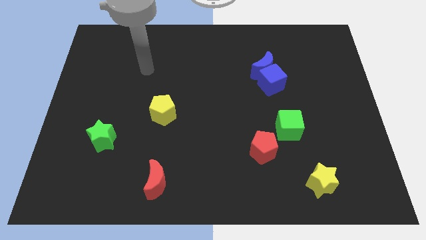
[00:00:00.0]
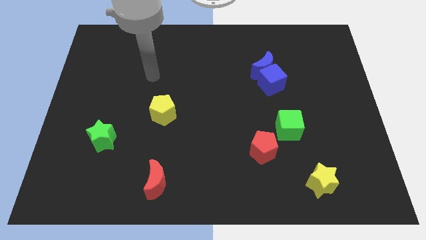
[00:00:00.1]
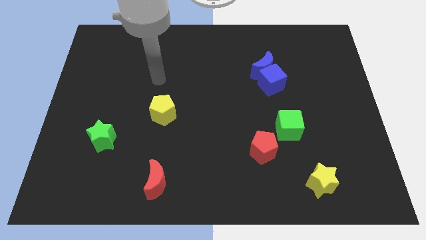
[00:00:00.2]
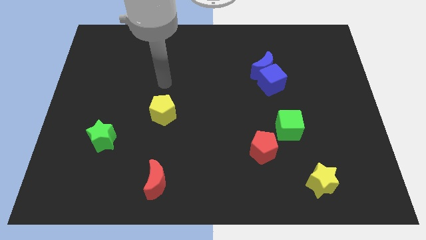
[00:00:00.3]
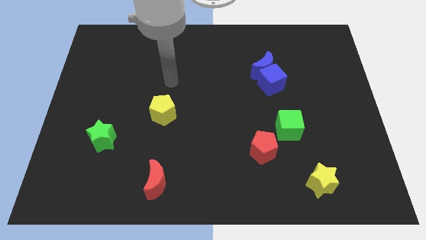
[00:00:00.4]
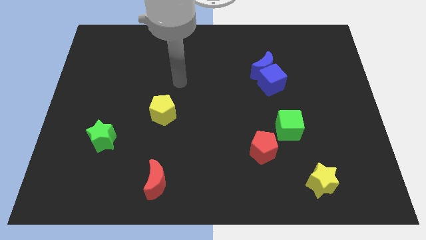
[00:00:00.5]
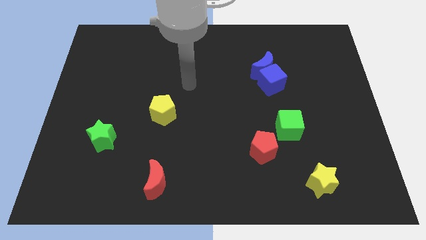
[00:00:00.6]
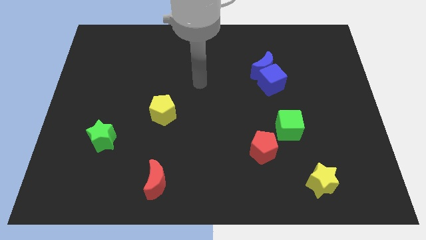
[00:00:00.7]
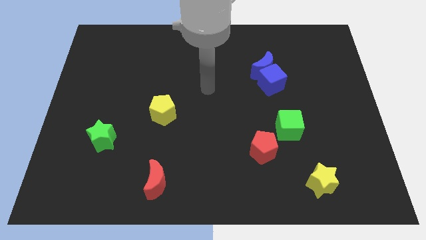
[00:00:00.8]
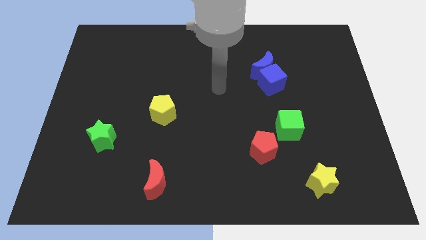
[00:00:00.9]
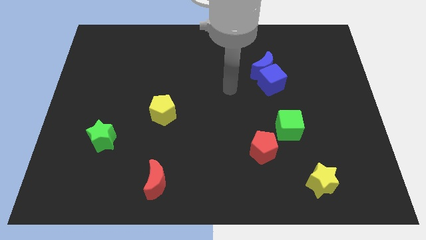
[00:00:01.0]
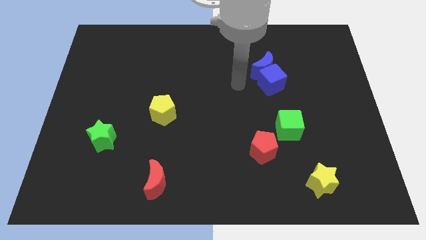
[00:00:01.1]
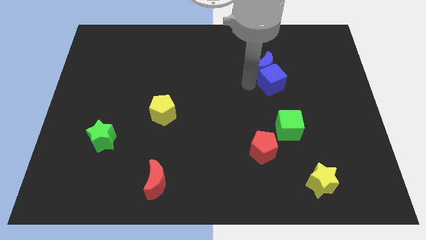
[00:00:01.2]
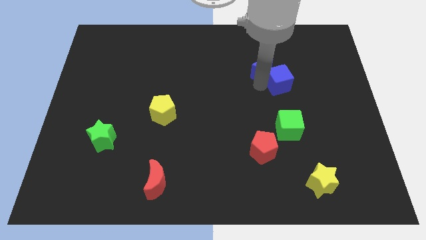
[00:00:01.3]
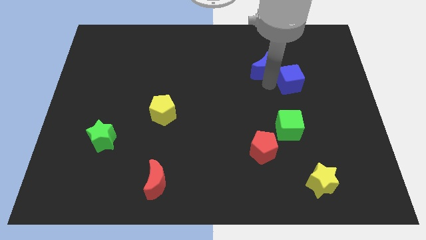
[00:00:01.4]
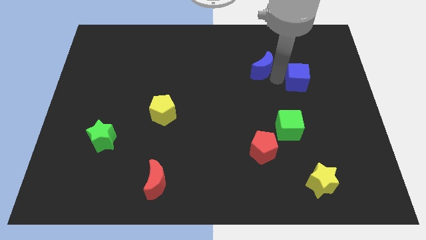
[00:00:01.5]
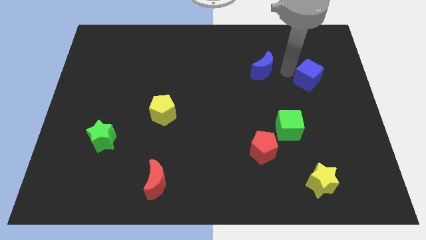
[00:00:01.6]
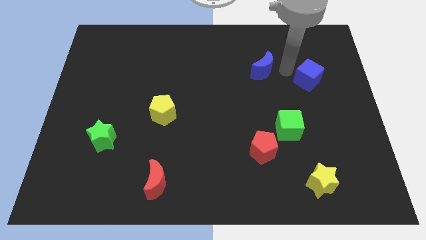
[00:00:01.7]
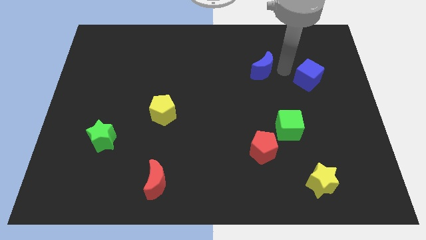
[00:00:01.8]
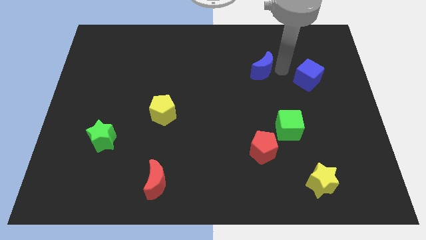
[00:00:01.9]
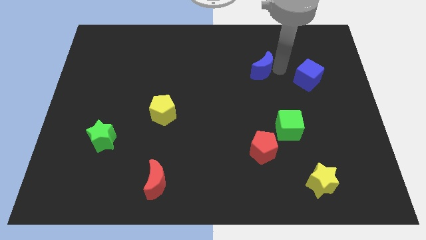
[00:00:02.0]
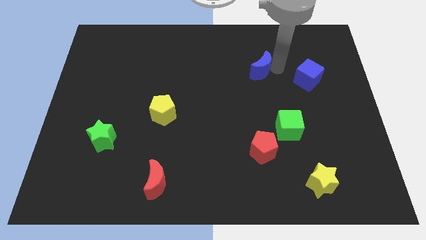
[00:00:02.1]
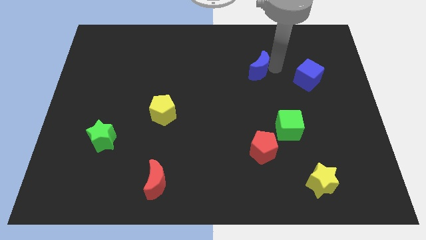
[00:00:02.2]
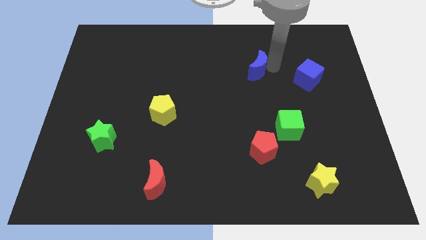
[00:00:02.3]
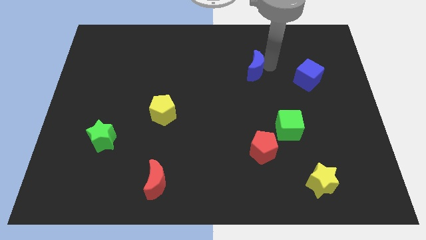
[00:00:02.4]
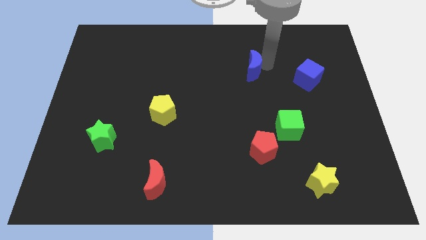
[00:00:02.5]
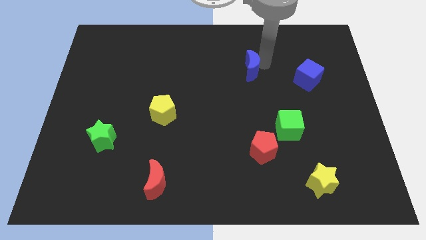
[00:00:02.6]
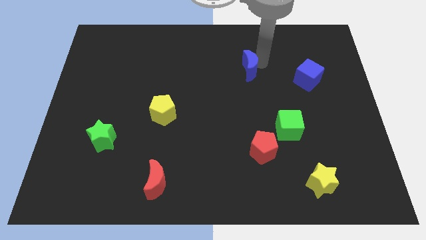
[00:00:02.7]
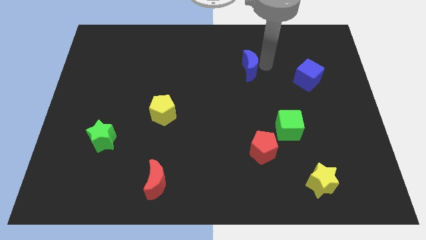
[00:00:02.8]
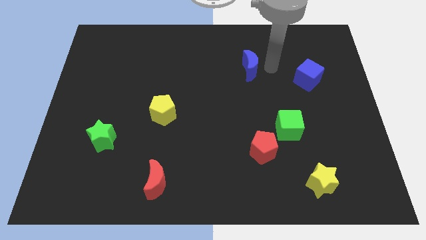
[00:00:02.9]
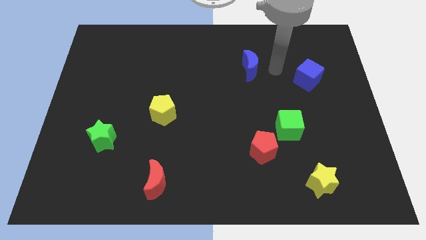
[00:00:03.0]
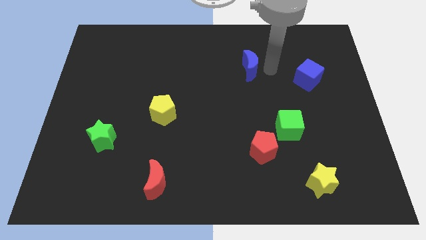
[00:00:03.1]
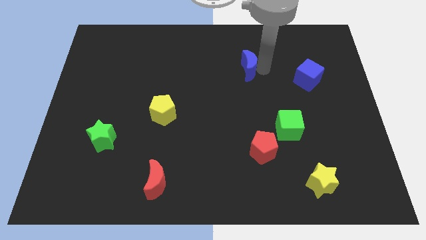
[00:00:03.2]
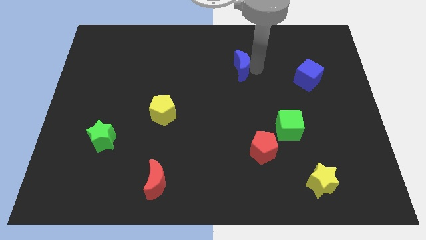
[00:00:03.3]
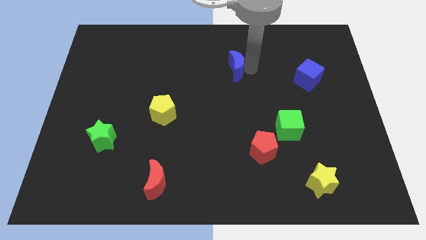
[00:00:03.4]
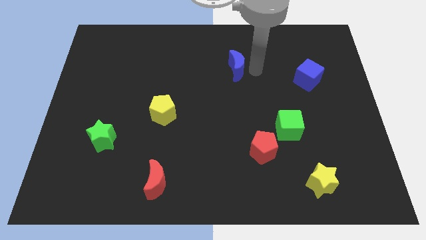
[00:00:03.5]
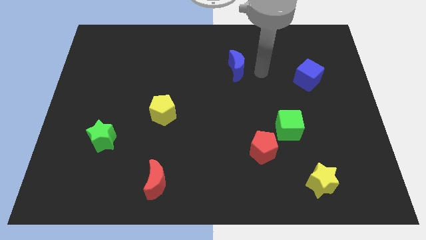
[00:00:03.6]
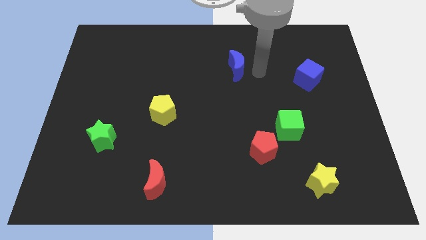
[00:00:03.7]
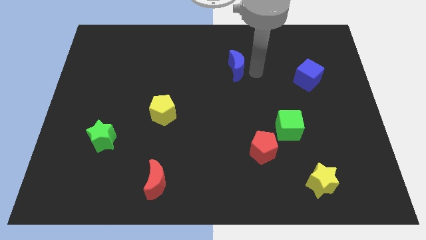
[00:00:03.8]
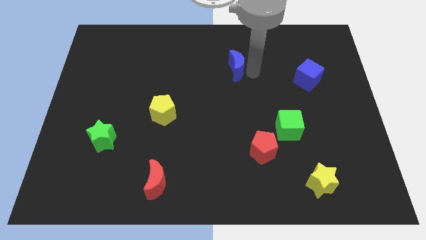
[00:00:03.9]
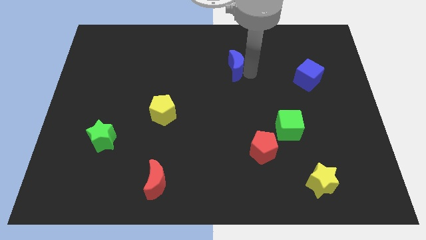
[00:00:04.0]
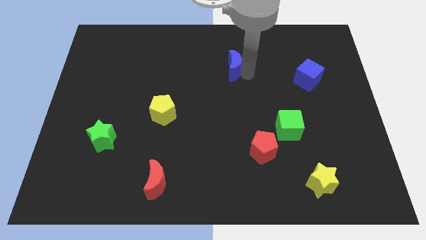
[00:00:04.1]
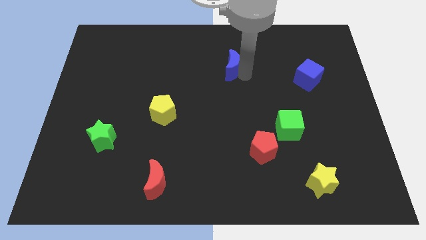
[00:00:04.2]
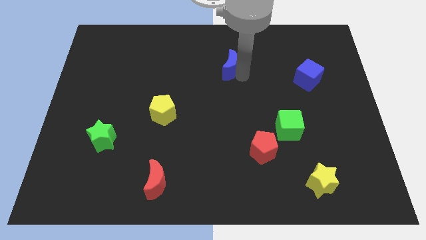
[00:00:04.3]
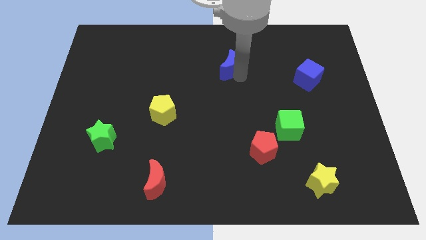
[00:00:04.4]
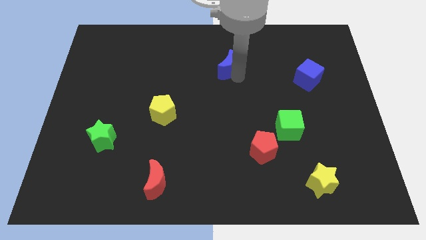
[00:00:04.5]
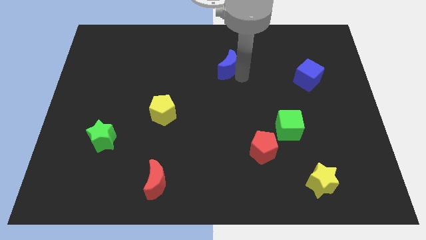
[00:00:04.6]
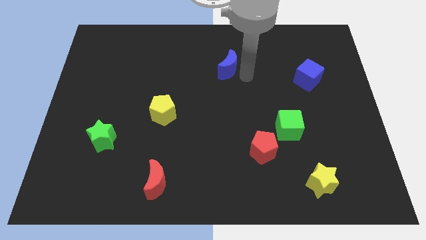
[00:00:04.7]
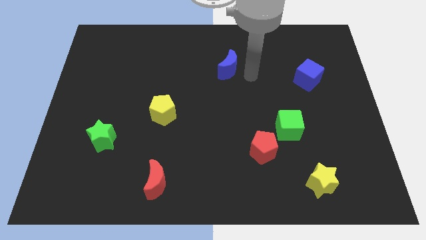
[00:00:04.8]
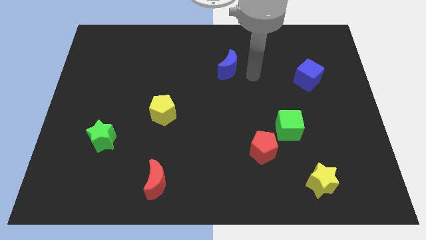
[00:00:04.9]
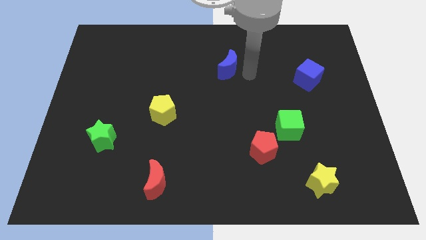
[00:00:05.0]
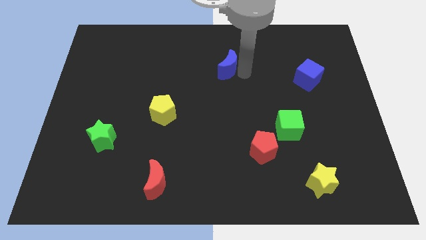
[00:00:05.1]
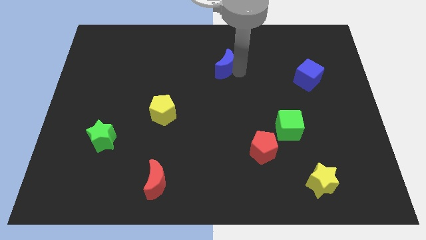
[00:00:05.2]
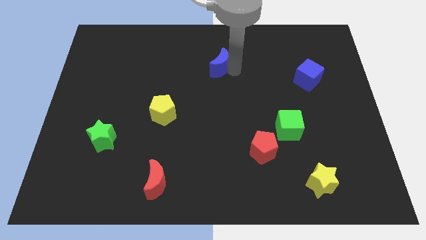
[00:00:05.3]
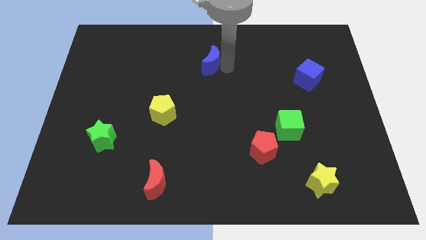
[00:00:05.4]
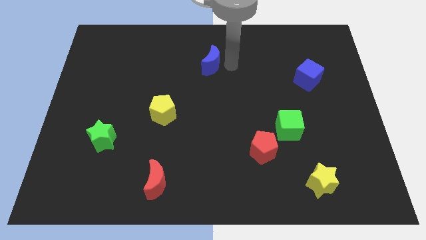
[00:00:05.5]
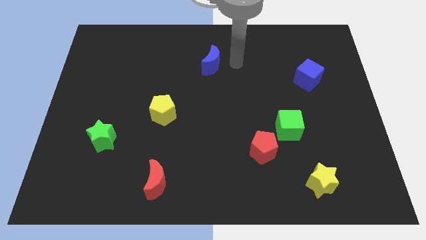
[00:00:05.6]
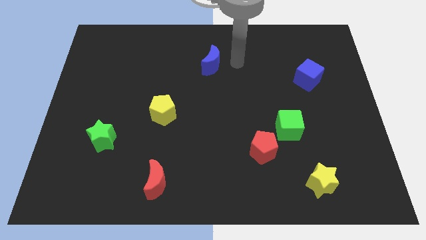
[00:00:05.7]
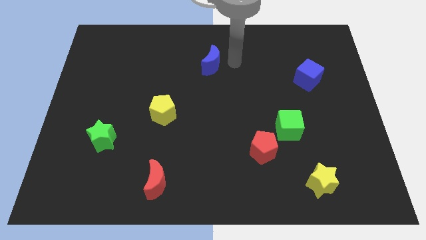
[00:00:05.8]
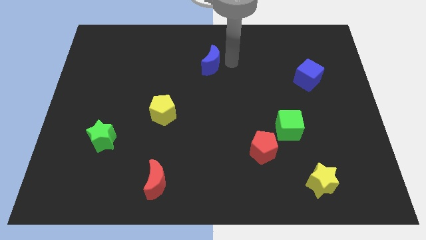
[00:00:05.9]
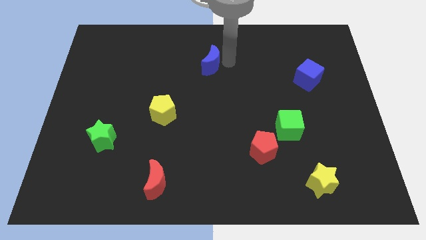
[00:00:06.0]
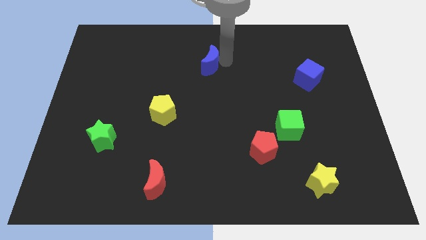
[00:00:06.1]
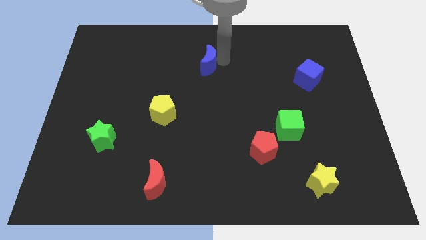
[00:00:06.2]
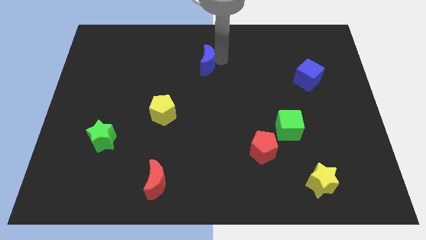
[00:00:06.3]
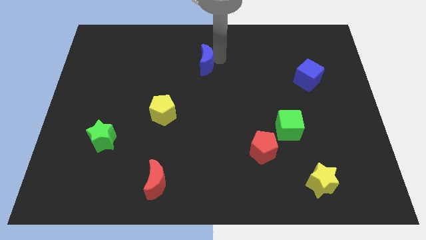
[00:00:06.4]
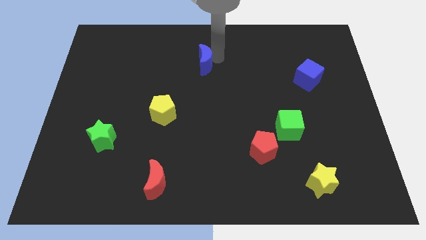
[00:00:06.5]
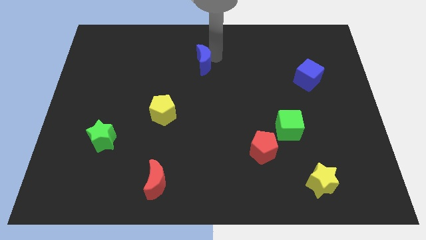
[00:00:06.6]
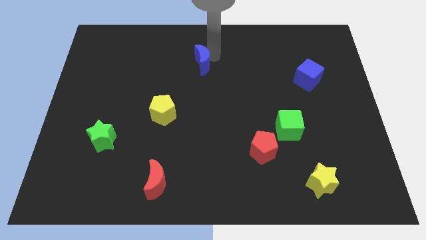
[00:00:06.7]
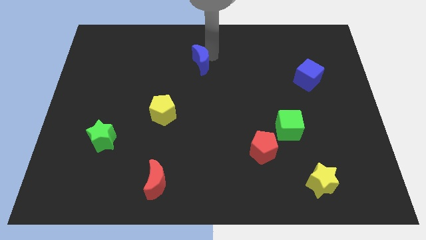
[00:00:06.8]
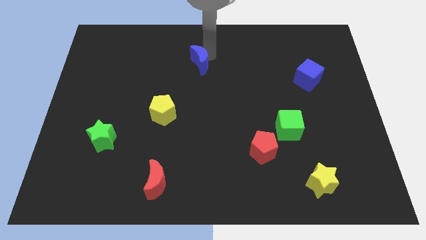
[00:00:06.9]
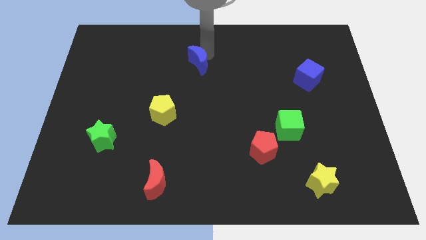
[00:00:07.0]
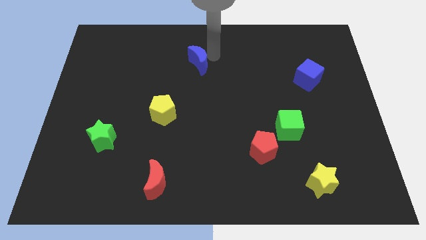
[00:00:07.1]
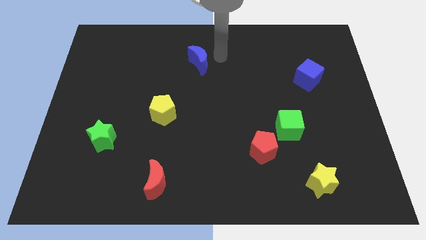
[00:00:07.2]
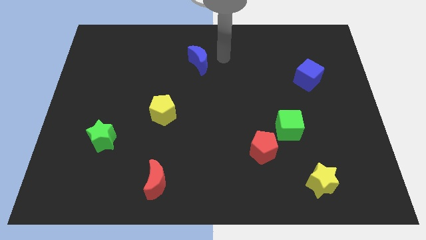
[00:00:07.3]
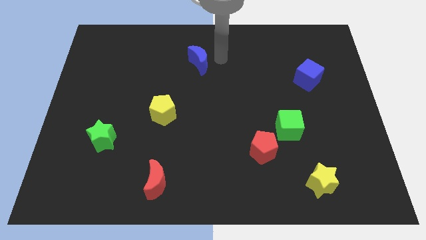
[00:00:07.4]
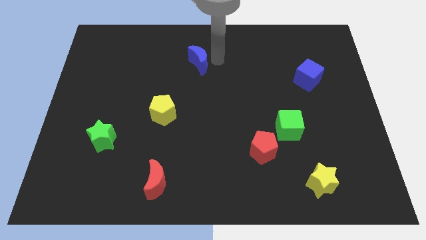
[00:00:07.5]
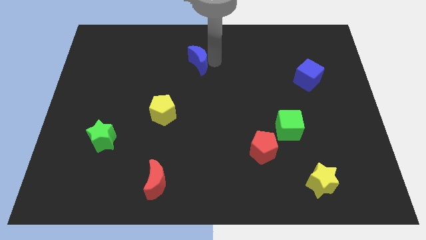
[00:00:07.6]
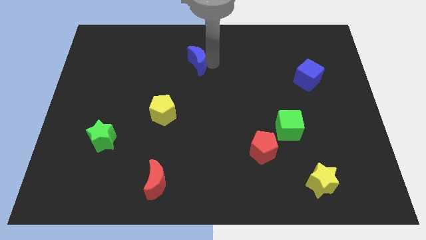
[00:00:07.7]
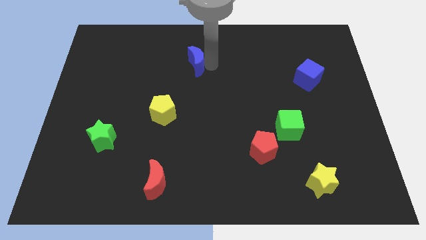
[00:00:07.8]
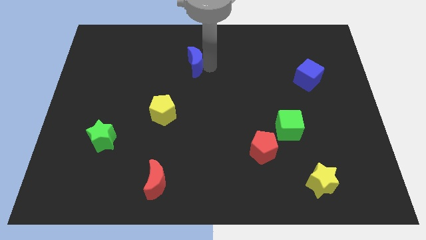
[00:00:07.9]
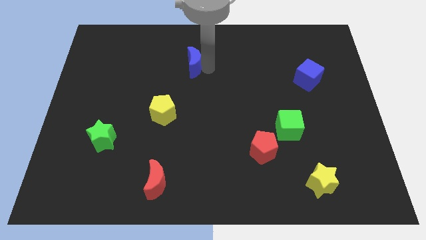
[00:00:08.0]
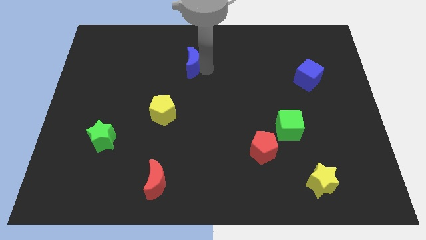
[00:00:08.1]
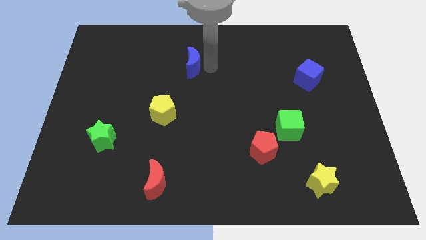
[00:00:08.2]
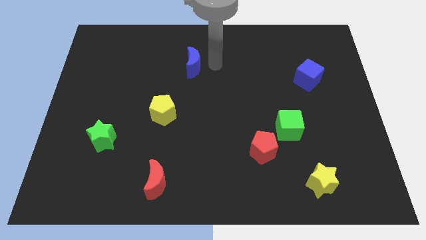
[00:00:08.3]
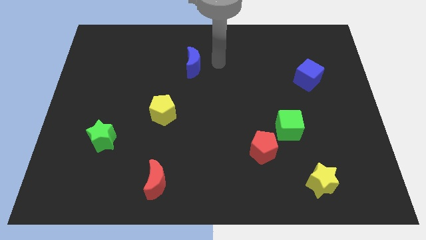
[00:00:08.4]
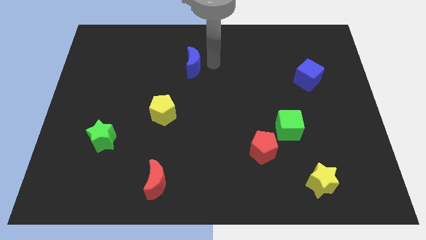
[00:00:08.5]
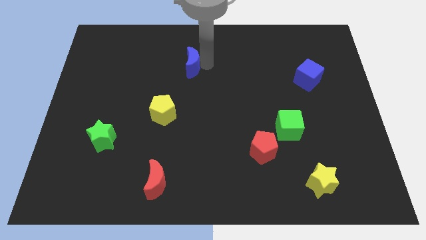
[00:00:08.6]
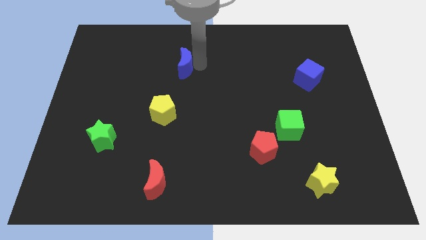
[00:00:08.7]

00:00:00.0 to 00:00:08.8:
push the blue moon to the left
